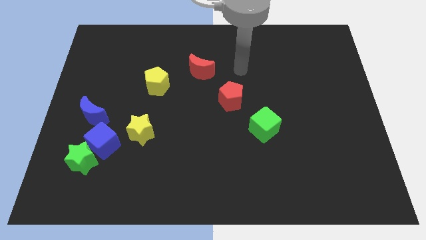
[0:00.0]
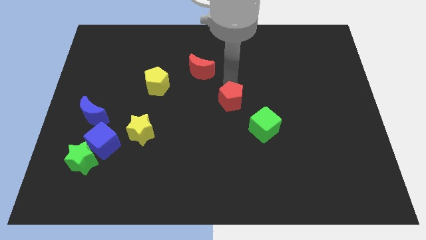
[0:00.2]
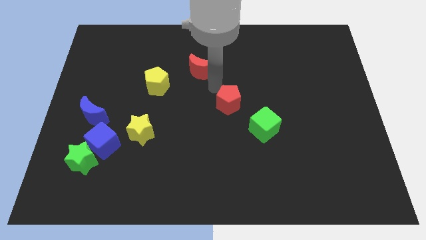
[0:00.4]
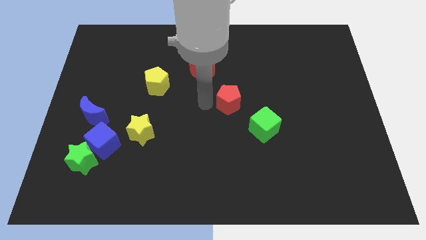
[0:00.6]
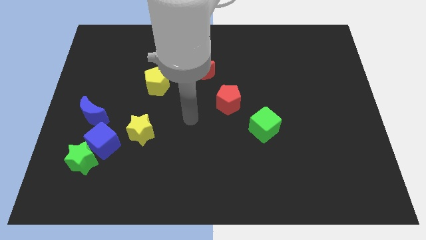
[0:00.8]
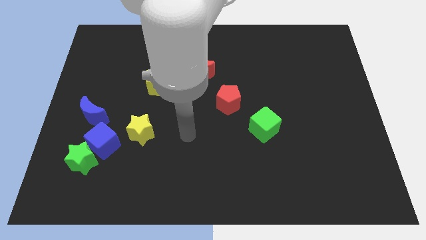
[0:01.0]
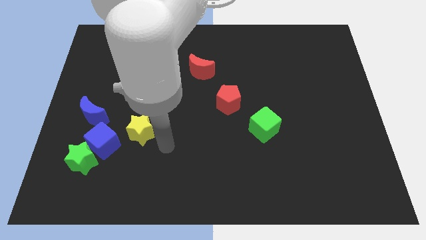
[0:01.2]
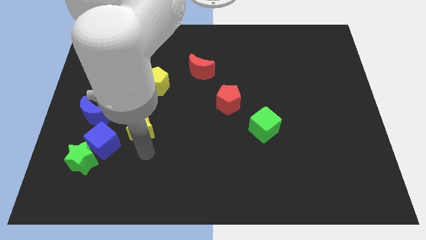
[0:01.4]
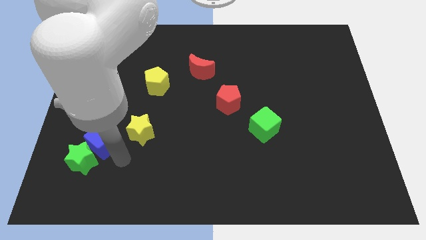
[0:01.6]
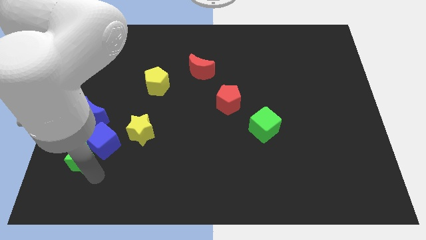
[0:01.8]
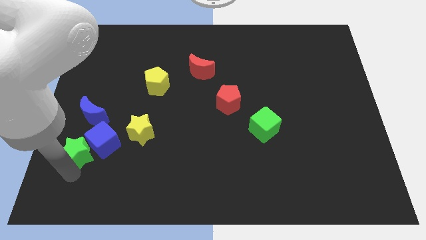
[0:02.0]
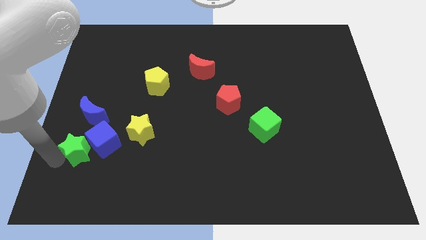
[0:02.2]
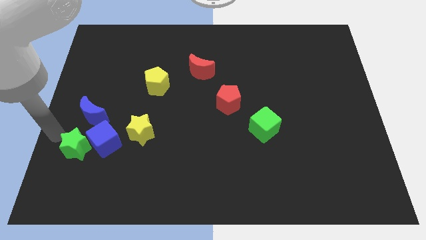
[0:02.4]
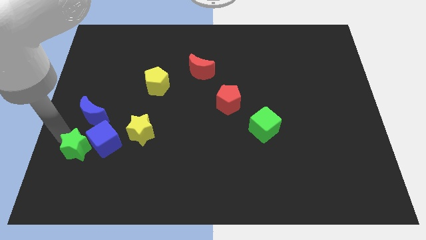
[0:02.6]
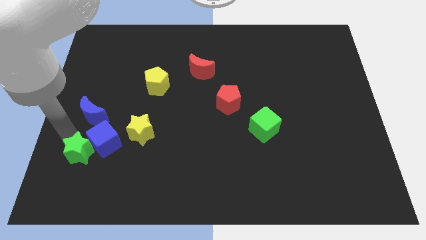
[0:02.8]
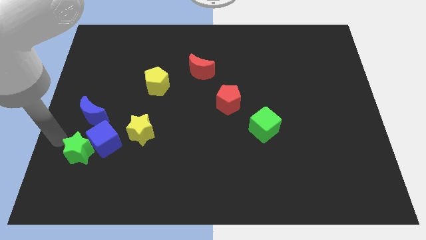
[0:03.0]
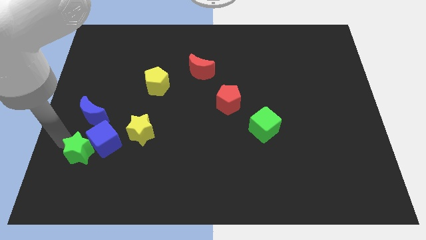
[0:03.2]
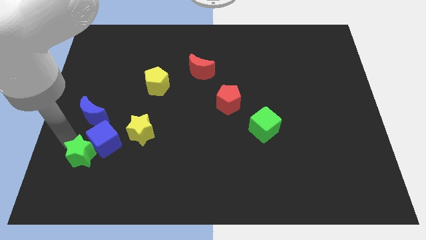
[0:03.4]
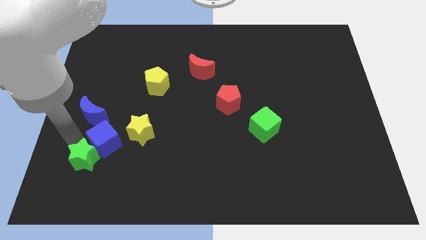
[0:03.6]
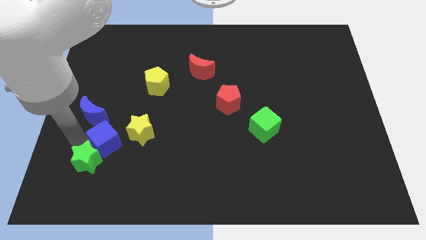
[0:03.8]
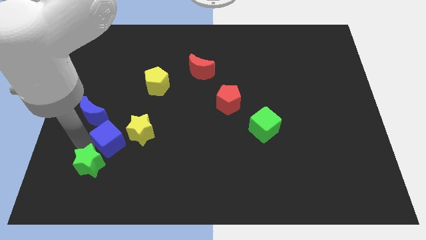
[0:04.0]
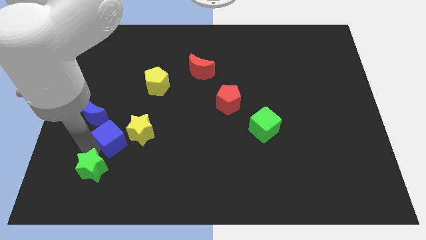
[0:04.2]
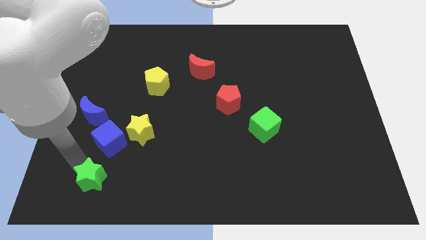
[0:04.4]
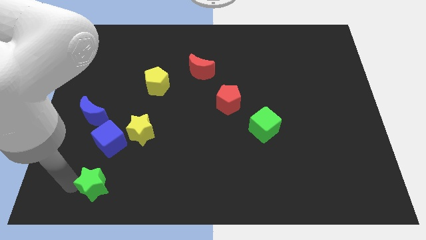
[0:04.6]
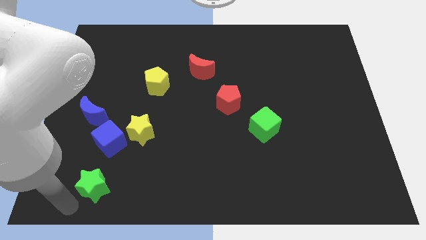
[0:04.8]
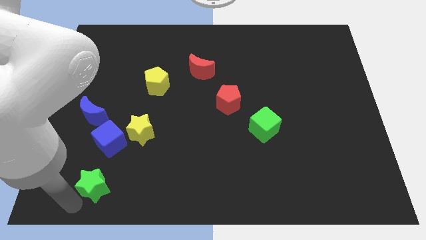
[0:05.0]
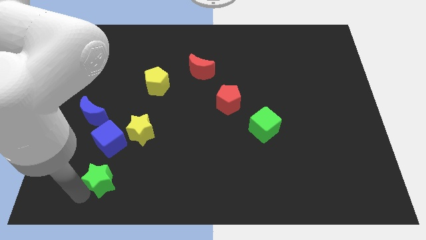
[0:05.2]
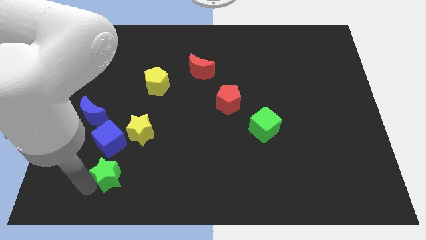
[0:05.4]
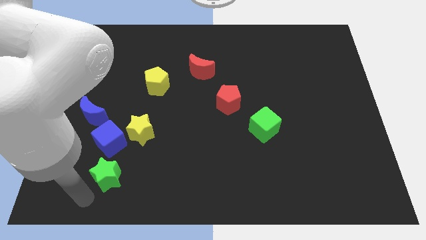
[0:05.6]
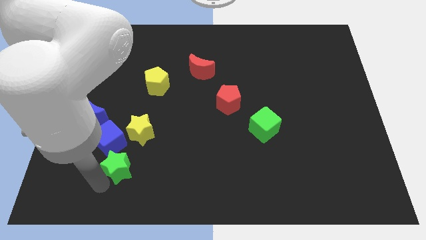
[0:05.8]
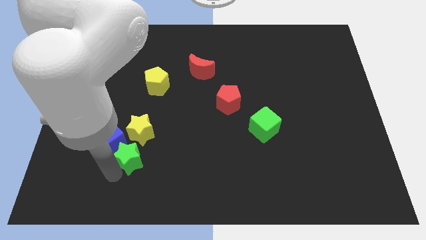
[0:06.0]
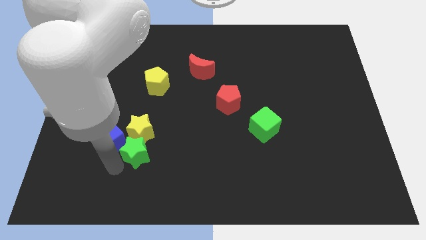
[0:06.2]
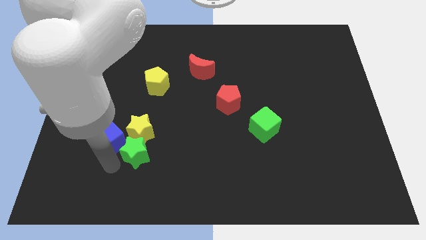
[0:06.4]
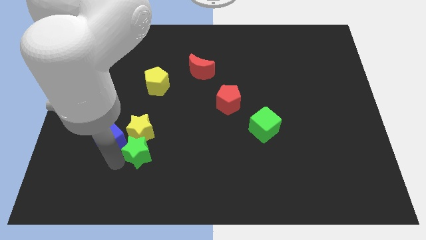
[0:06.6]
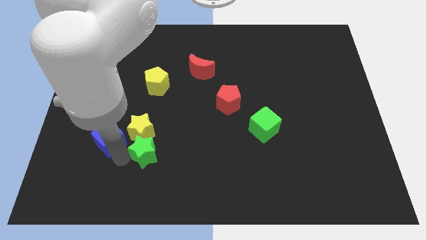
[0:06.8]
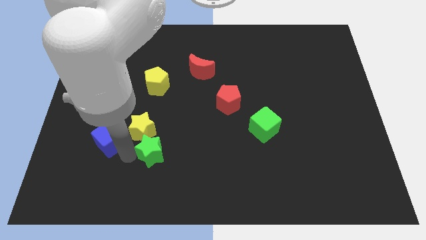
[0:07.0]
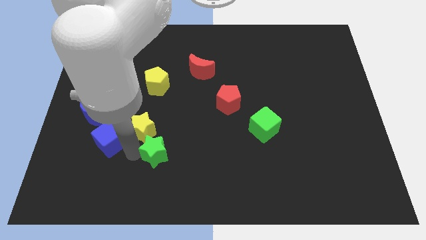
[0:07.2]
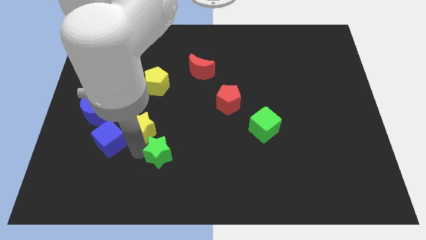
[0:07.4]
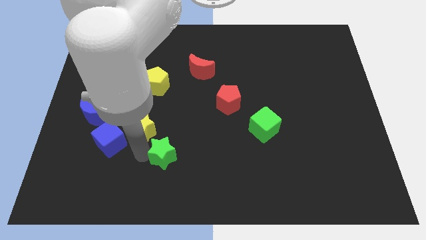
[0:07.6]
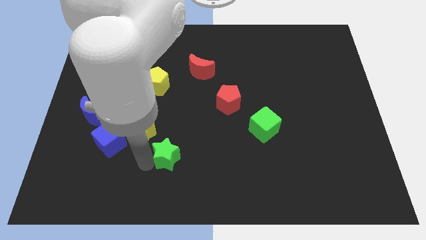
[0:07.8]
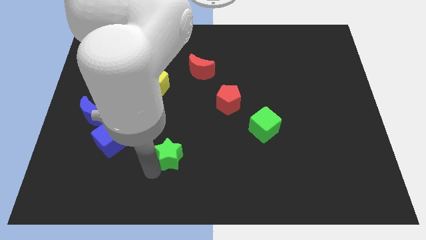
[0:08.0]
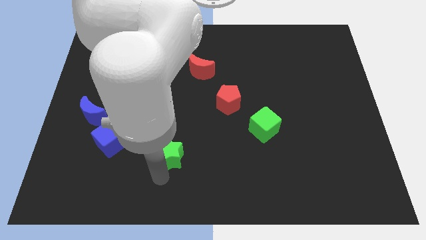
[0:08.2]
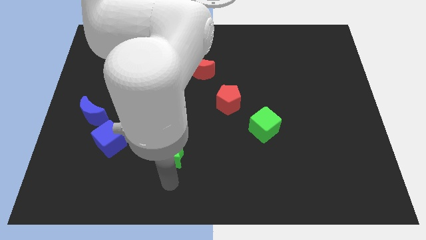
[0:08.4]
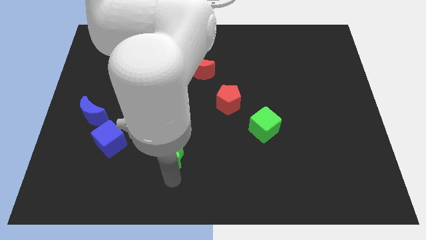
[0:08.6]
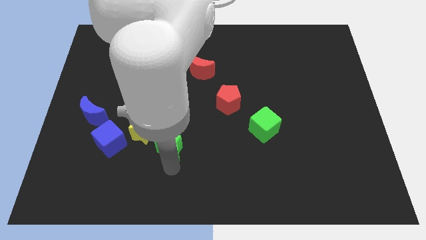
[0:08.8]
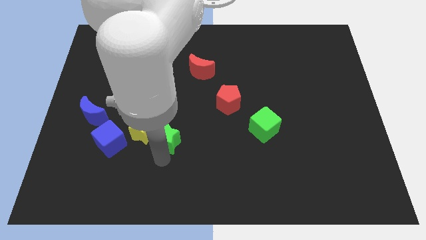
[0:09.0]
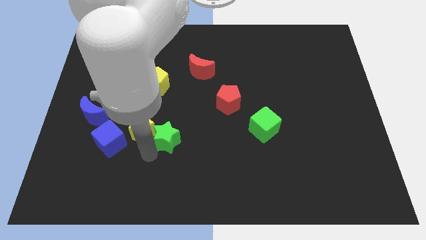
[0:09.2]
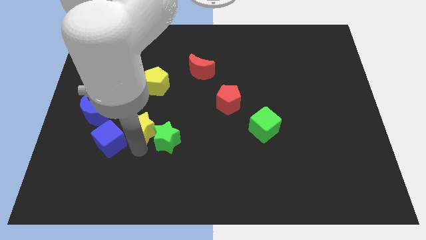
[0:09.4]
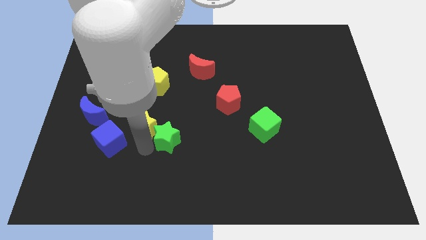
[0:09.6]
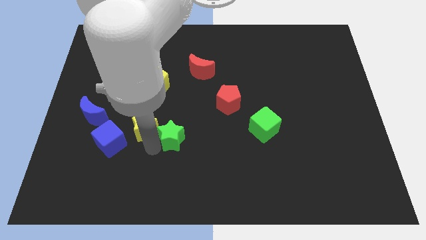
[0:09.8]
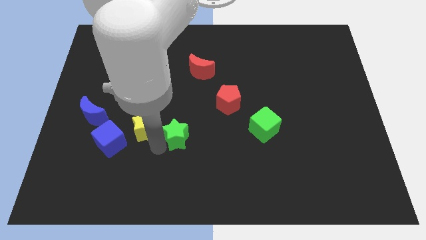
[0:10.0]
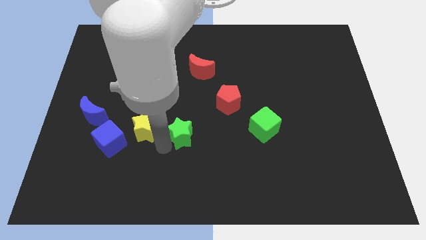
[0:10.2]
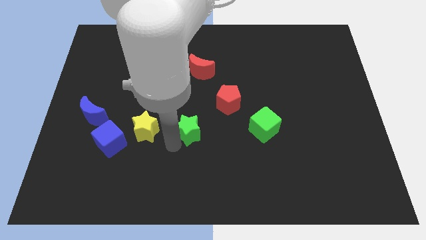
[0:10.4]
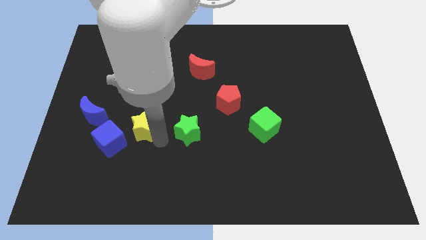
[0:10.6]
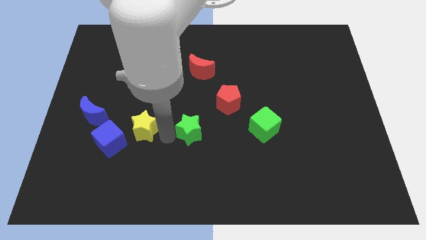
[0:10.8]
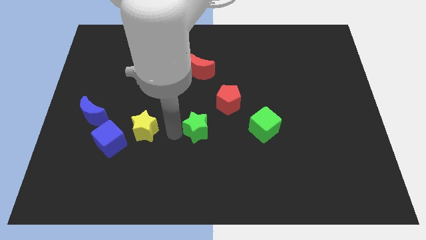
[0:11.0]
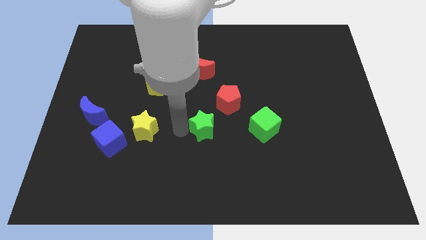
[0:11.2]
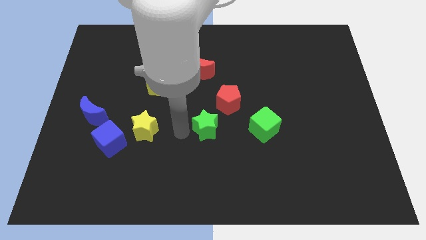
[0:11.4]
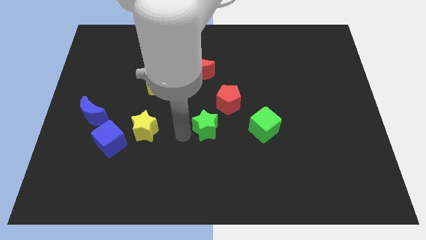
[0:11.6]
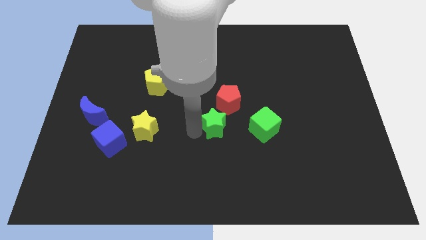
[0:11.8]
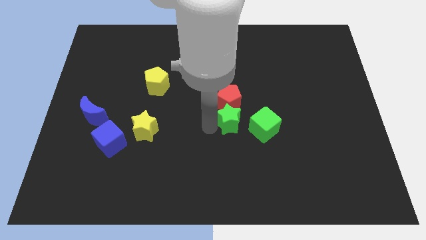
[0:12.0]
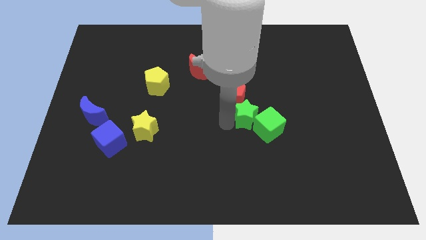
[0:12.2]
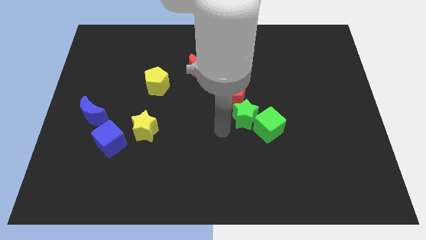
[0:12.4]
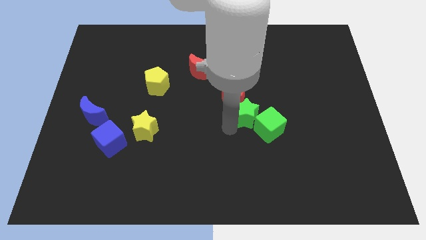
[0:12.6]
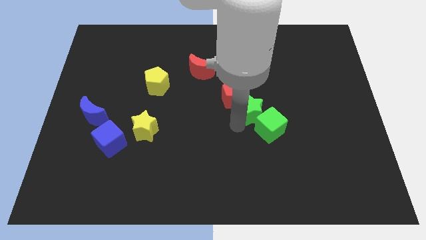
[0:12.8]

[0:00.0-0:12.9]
push the green star right of the red pentagon

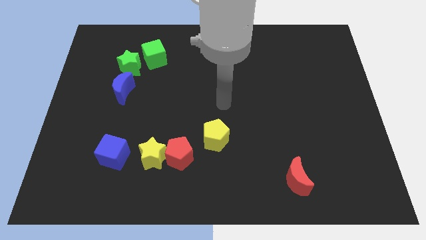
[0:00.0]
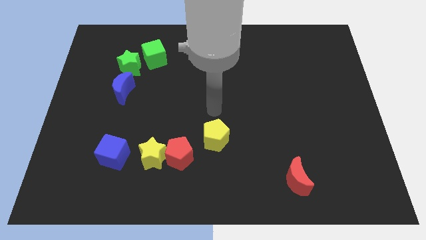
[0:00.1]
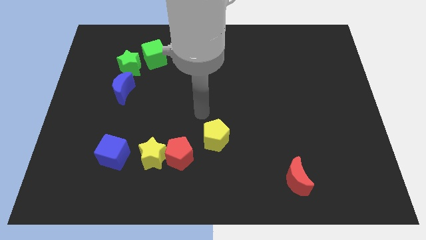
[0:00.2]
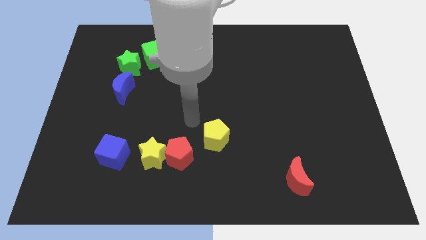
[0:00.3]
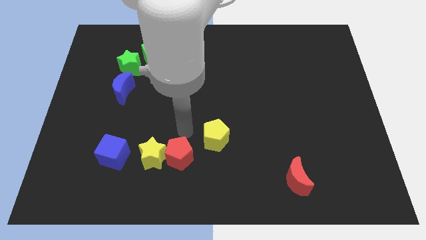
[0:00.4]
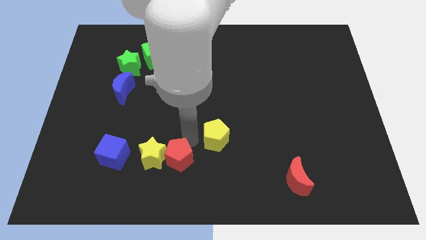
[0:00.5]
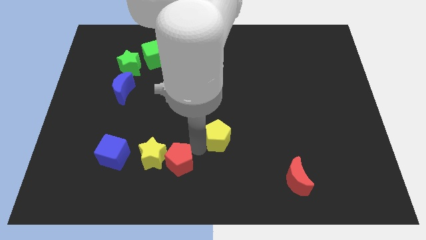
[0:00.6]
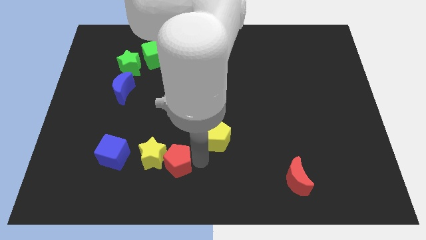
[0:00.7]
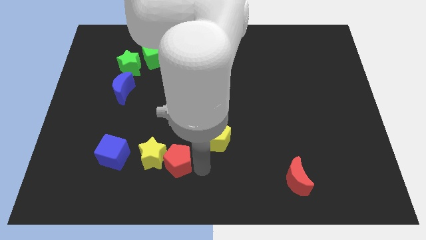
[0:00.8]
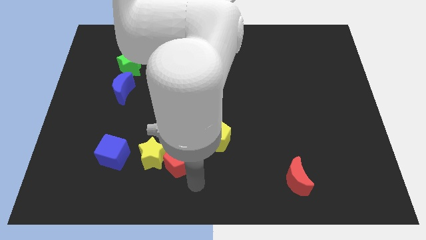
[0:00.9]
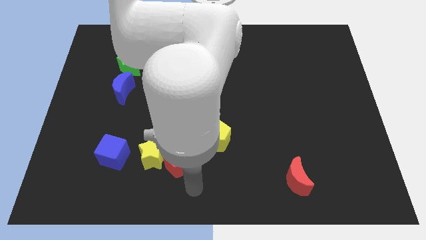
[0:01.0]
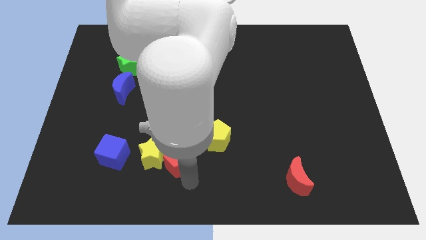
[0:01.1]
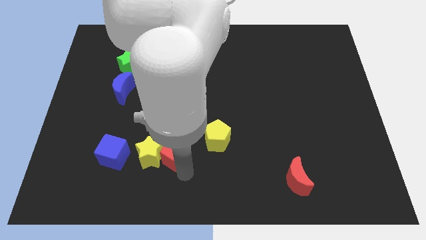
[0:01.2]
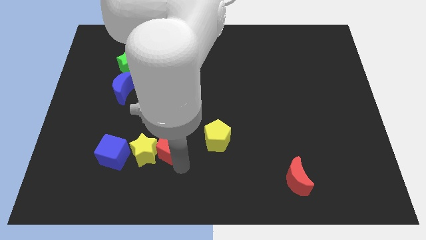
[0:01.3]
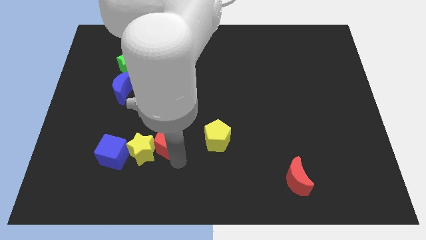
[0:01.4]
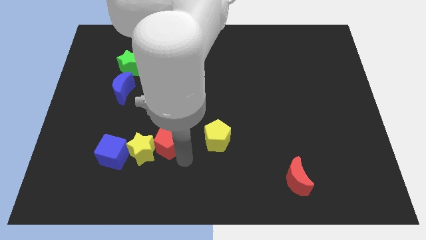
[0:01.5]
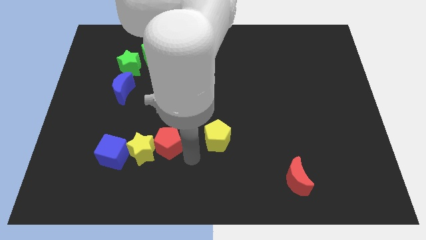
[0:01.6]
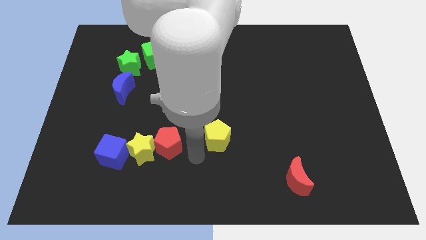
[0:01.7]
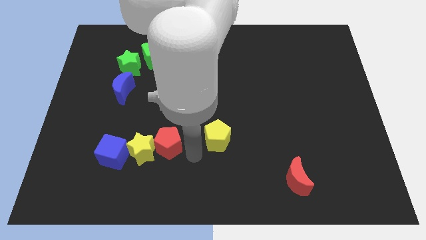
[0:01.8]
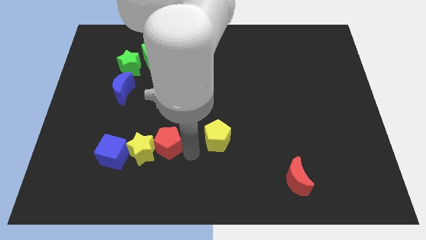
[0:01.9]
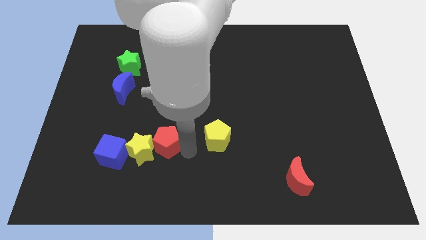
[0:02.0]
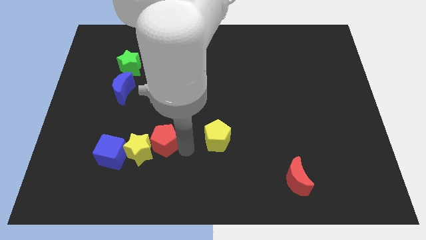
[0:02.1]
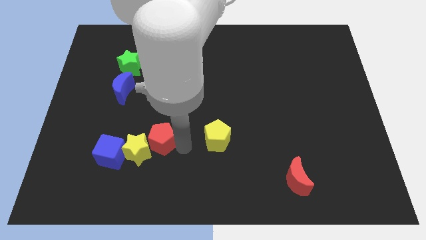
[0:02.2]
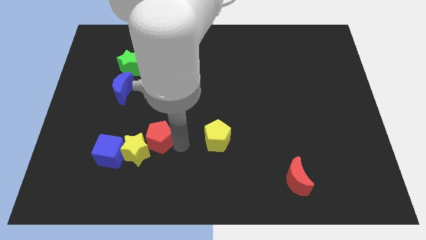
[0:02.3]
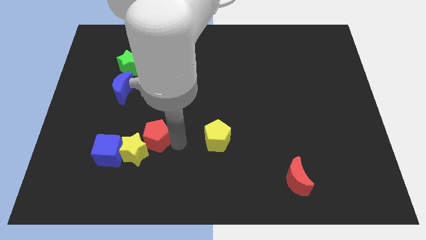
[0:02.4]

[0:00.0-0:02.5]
move the red pentagon to the top right of the blue cube
